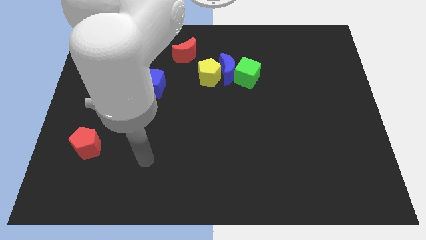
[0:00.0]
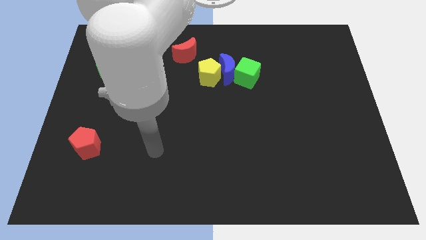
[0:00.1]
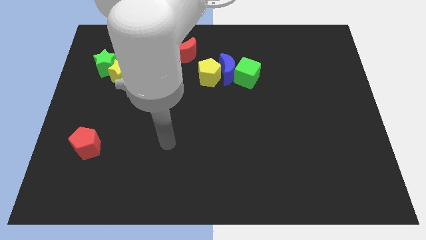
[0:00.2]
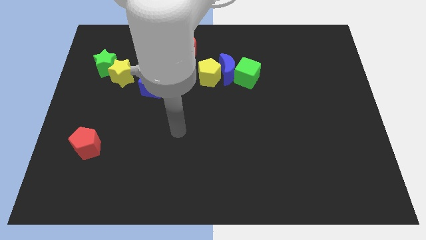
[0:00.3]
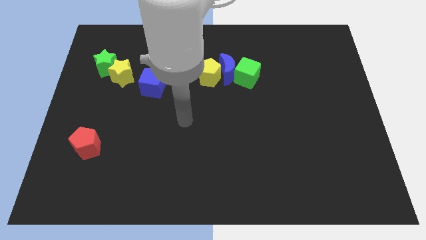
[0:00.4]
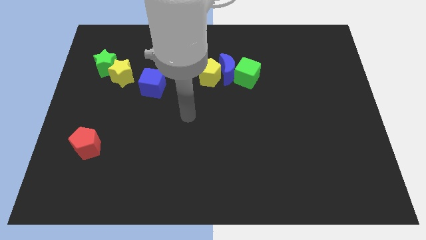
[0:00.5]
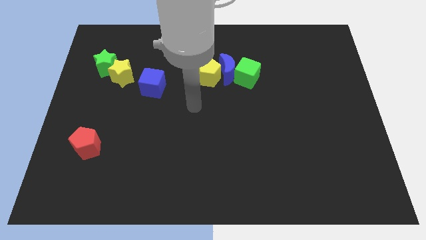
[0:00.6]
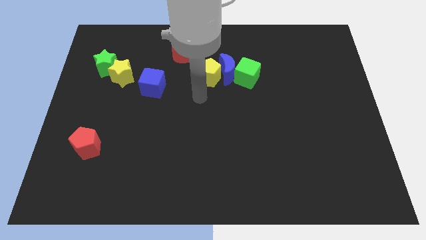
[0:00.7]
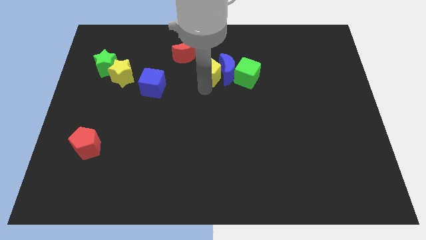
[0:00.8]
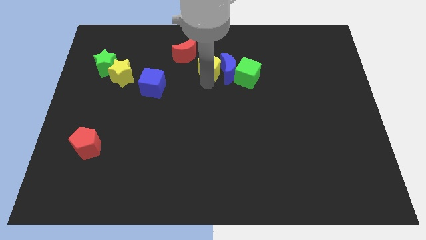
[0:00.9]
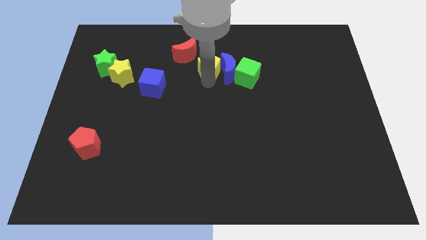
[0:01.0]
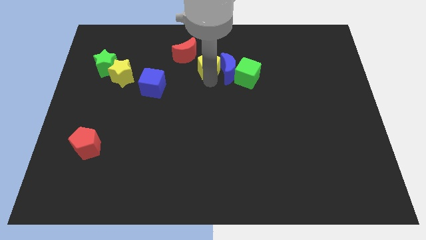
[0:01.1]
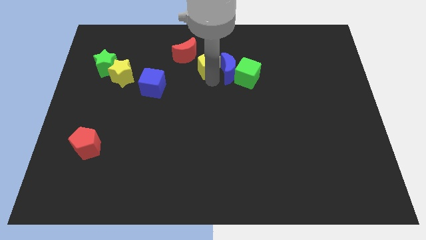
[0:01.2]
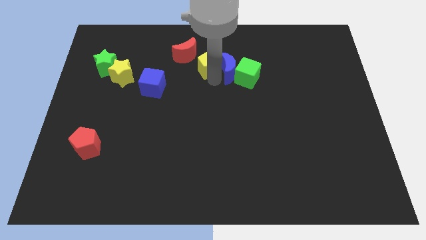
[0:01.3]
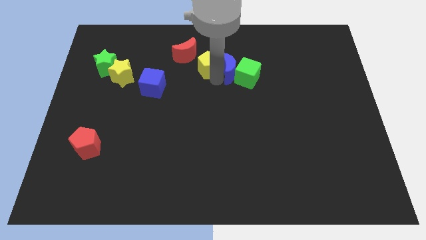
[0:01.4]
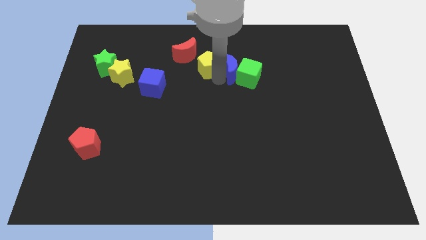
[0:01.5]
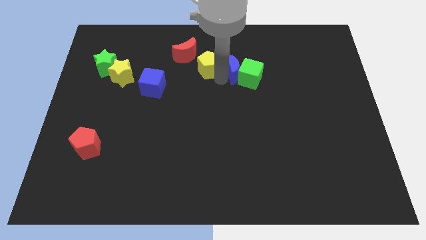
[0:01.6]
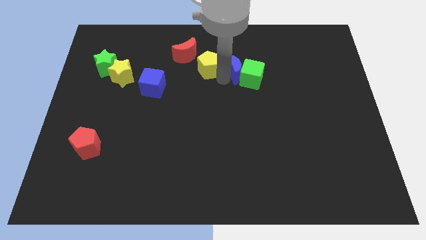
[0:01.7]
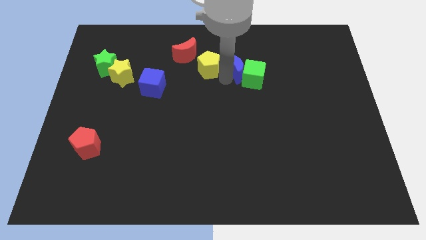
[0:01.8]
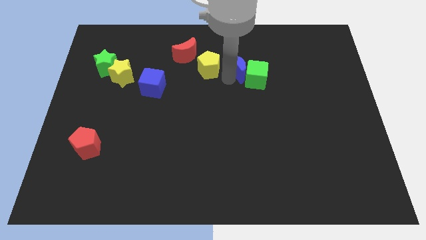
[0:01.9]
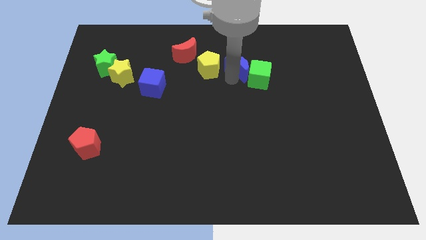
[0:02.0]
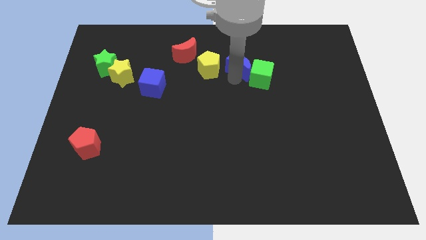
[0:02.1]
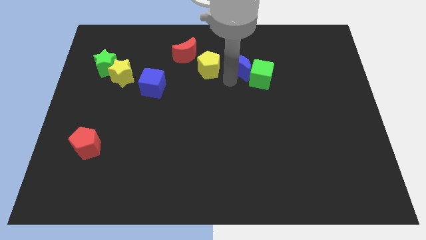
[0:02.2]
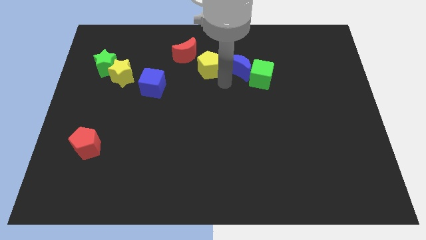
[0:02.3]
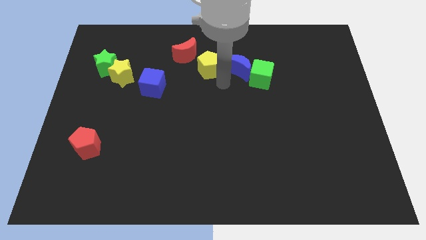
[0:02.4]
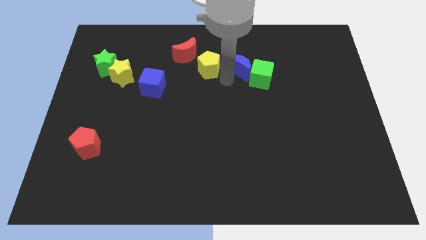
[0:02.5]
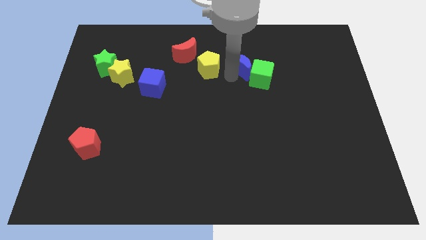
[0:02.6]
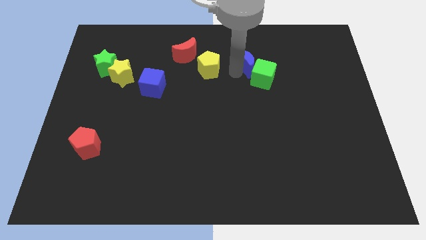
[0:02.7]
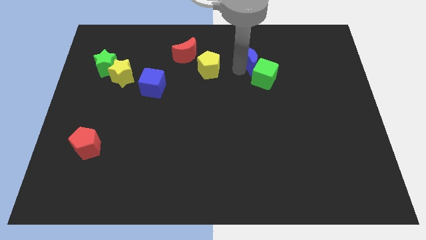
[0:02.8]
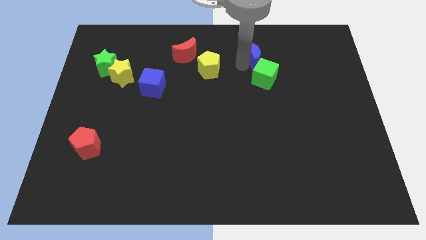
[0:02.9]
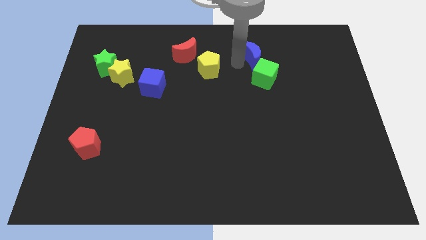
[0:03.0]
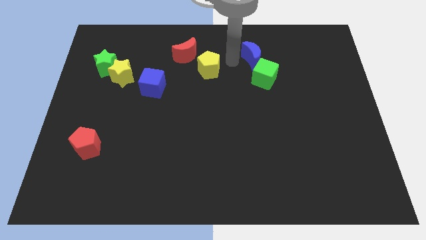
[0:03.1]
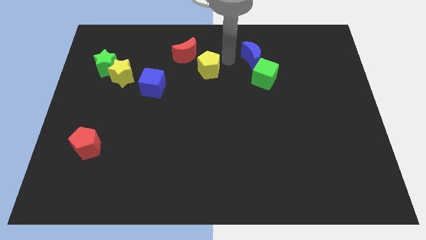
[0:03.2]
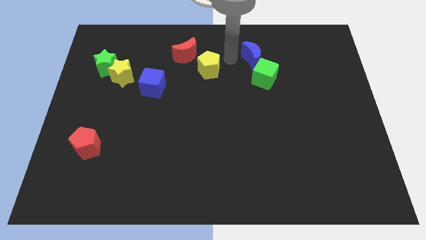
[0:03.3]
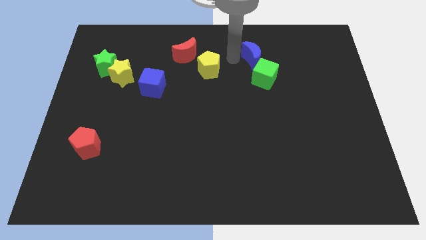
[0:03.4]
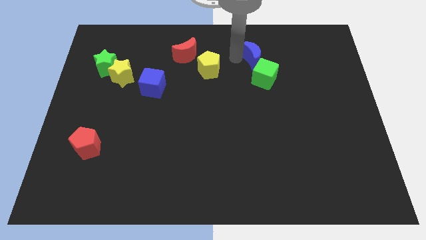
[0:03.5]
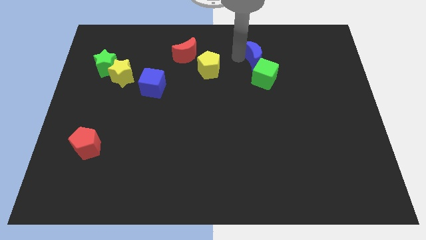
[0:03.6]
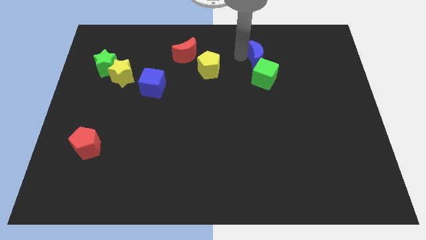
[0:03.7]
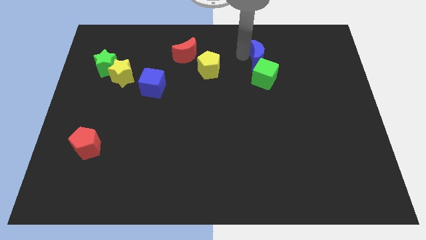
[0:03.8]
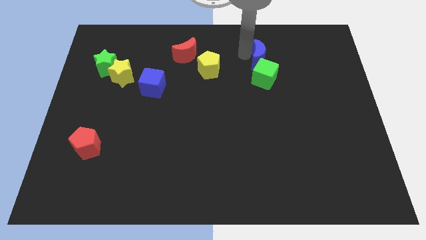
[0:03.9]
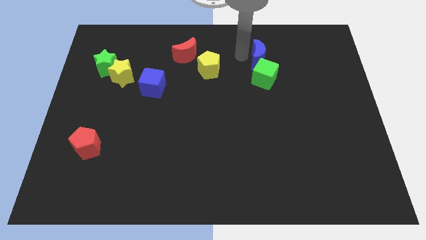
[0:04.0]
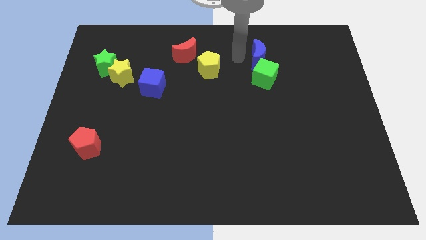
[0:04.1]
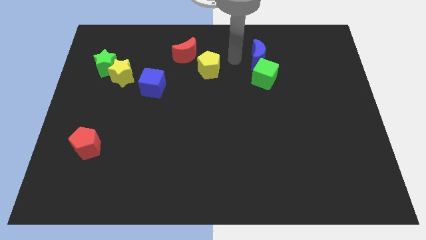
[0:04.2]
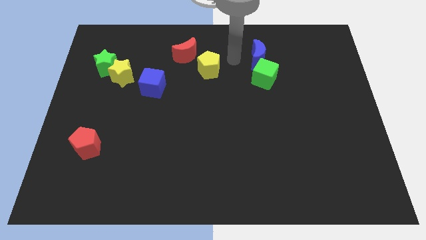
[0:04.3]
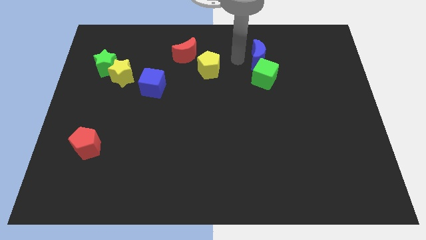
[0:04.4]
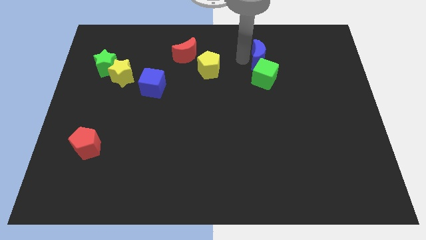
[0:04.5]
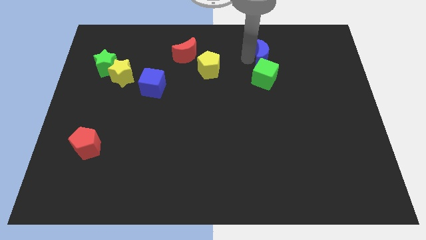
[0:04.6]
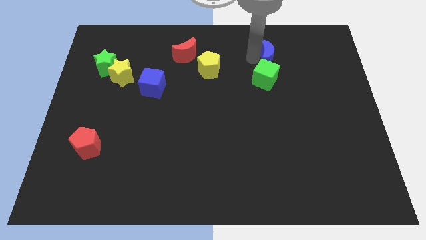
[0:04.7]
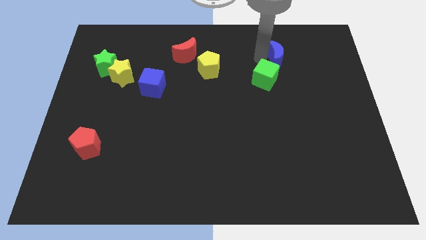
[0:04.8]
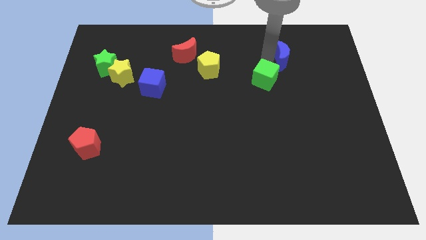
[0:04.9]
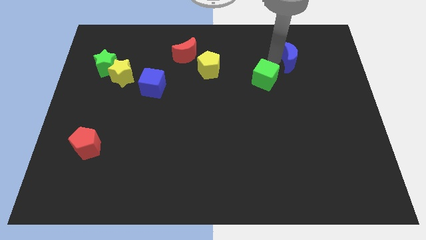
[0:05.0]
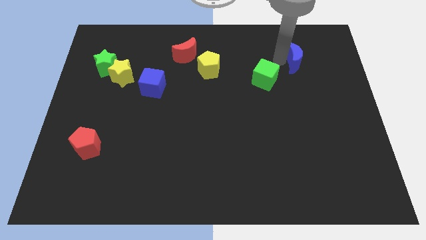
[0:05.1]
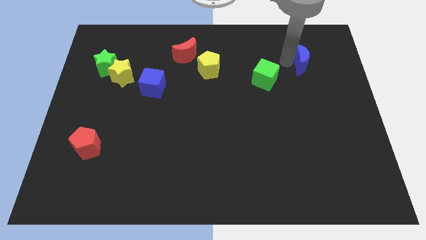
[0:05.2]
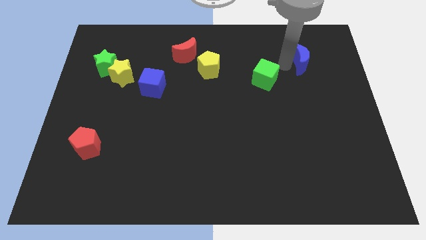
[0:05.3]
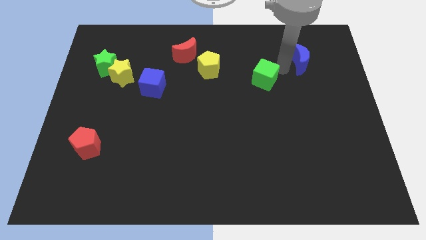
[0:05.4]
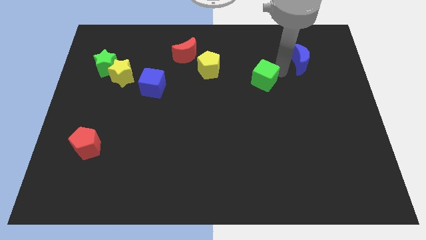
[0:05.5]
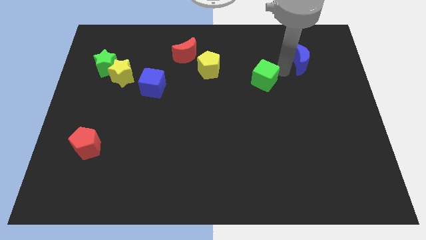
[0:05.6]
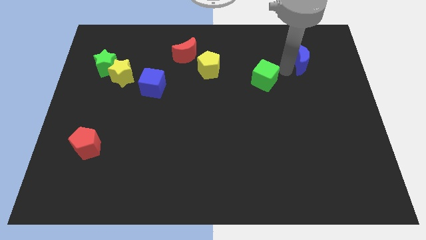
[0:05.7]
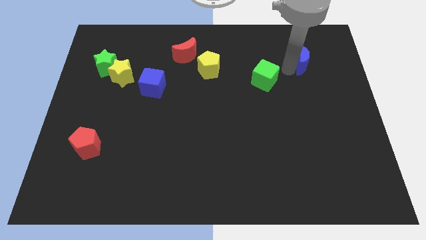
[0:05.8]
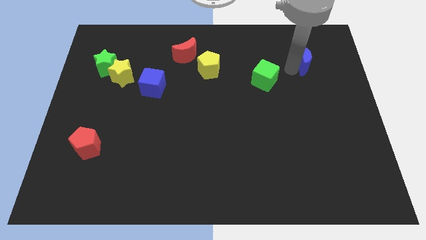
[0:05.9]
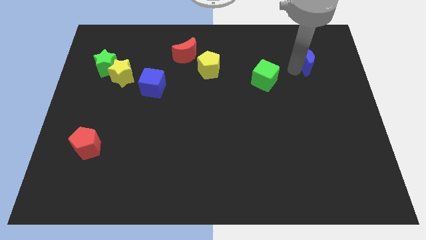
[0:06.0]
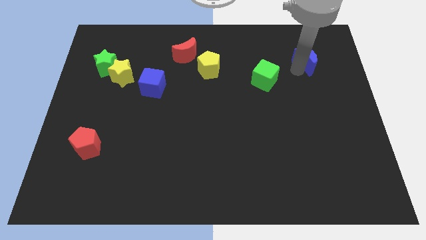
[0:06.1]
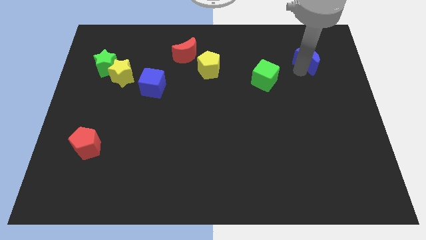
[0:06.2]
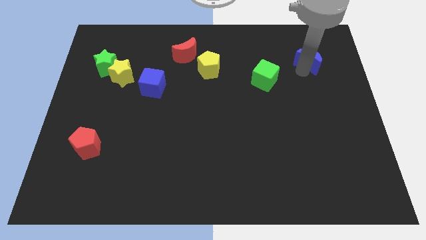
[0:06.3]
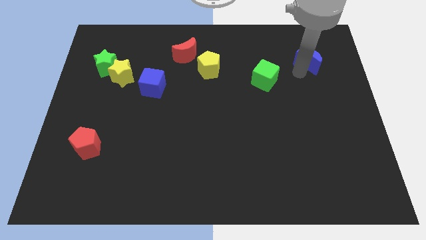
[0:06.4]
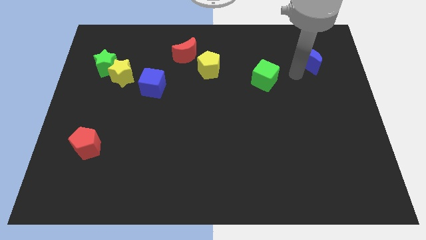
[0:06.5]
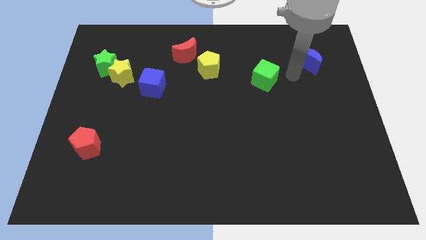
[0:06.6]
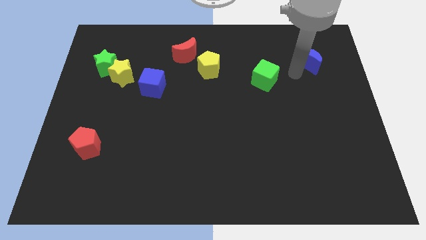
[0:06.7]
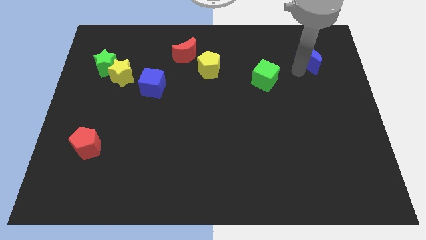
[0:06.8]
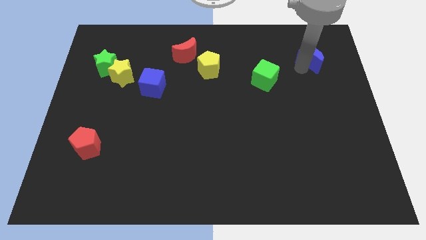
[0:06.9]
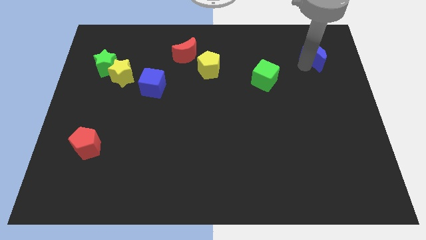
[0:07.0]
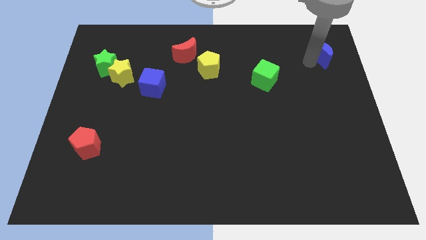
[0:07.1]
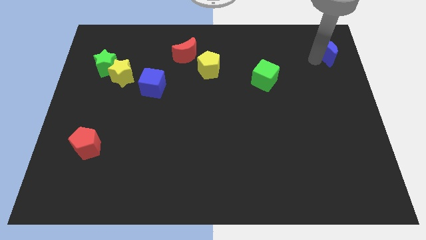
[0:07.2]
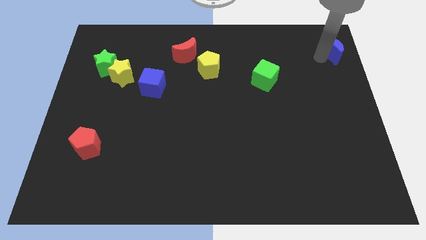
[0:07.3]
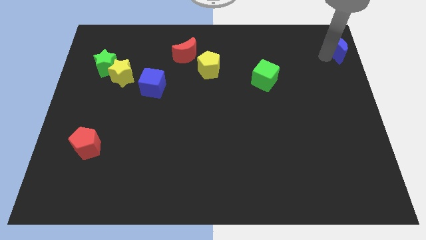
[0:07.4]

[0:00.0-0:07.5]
push the blue moon to the top right corner

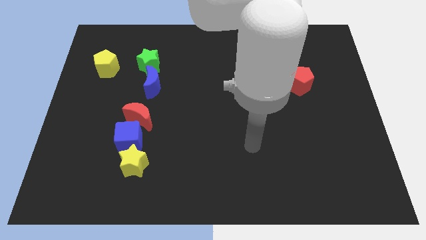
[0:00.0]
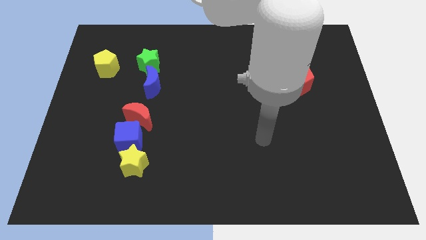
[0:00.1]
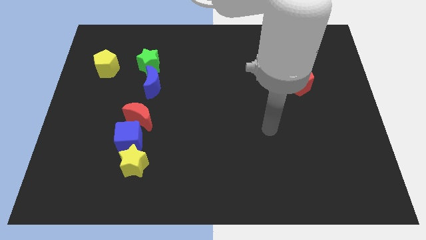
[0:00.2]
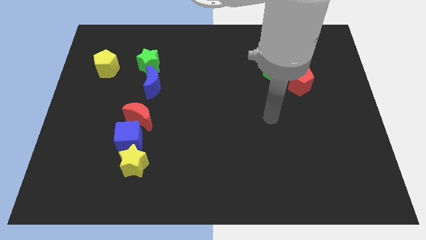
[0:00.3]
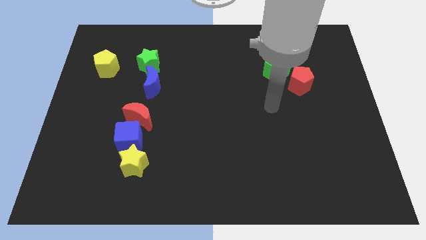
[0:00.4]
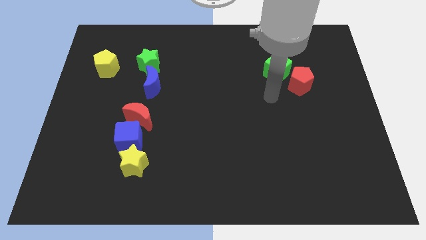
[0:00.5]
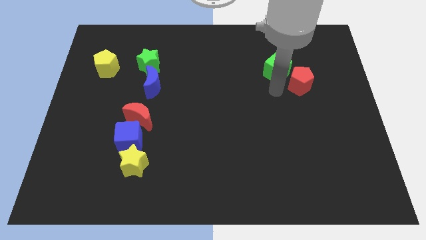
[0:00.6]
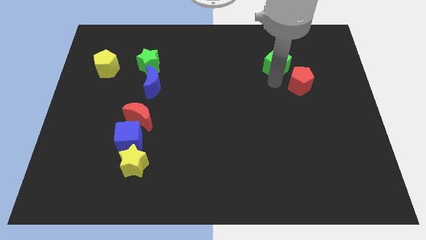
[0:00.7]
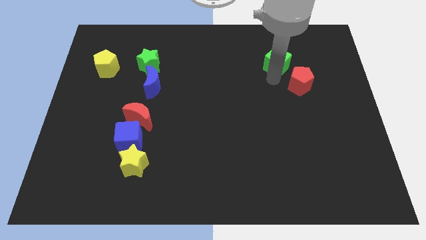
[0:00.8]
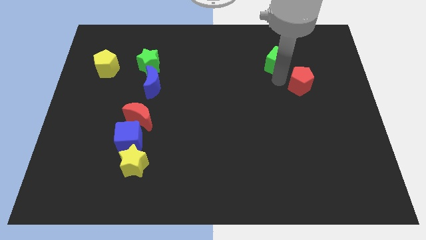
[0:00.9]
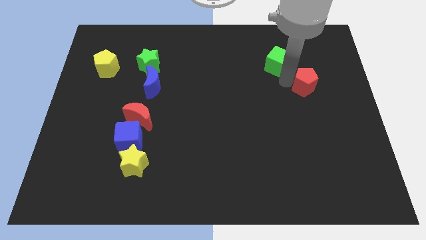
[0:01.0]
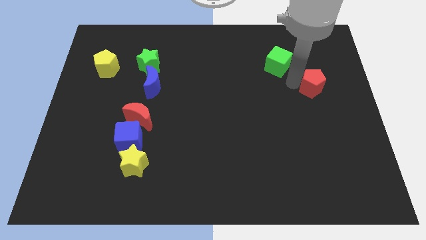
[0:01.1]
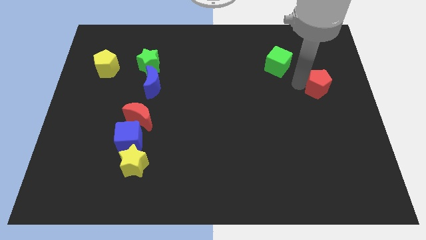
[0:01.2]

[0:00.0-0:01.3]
put the red pentagon to the right side
